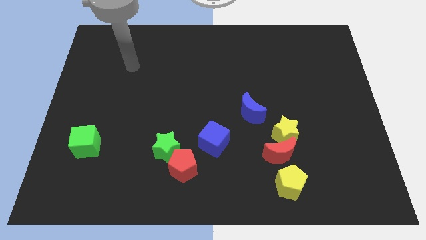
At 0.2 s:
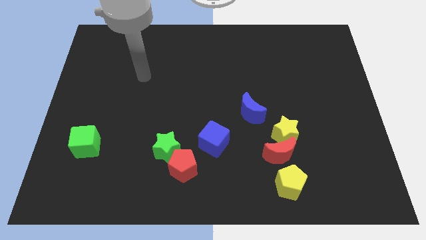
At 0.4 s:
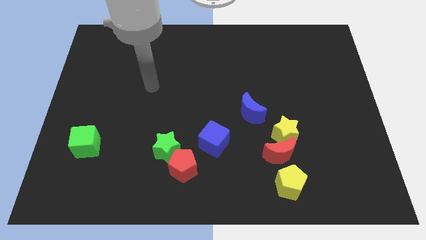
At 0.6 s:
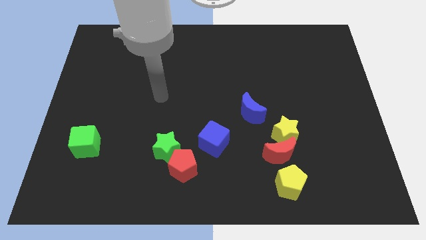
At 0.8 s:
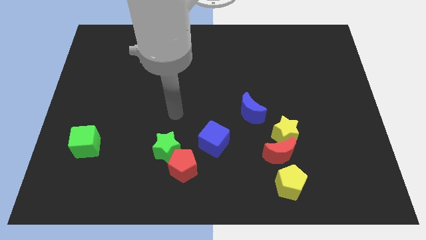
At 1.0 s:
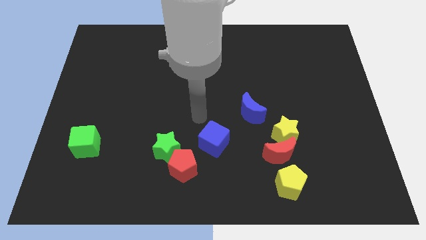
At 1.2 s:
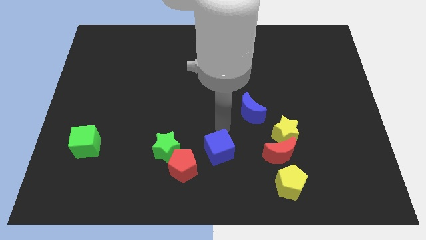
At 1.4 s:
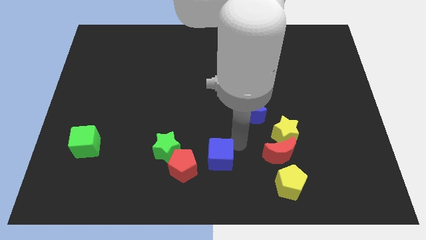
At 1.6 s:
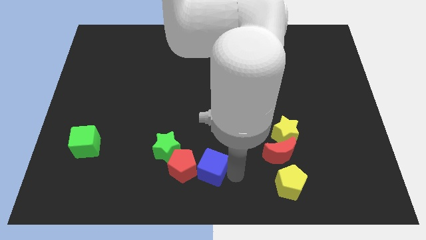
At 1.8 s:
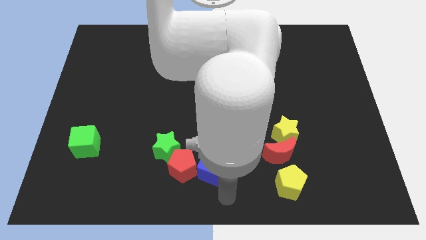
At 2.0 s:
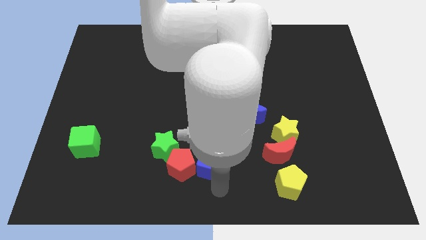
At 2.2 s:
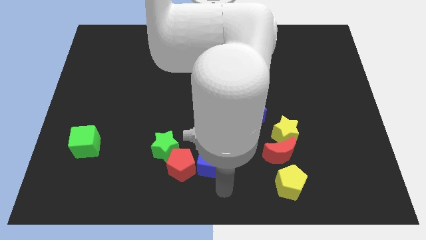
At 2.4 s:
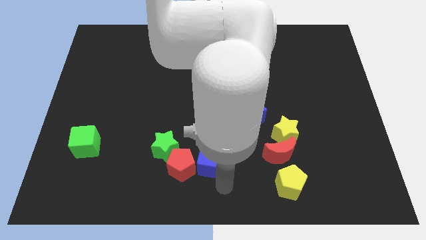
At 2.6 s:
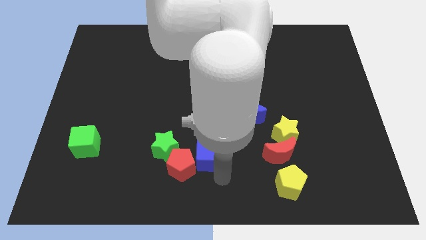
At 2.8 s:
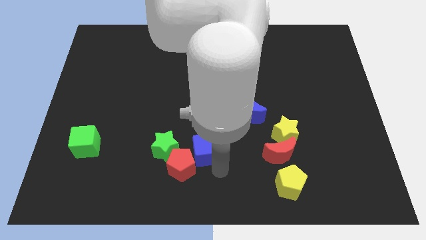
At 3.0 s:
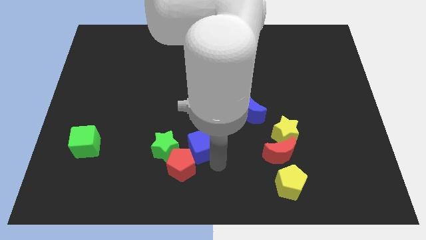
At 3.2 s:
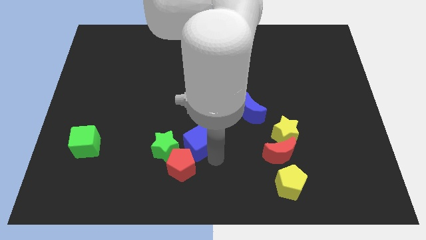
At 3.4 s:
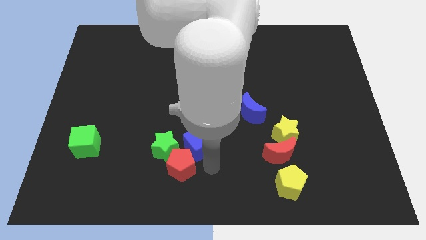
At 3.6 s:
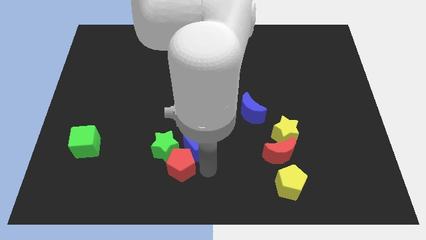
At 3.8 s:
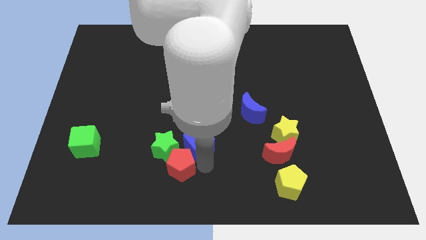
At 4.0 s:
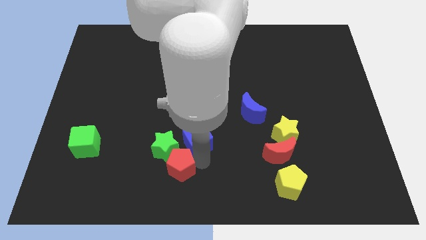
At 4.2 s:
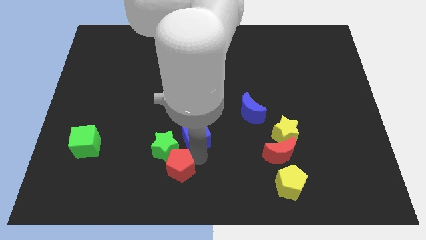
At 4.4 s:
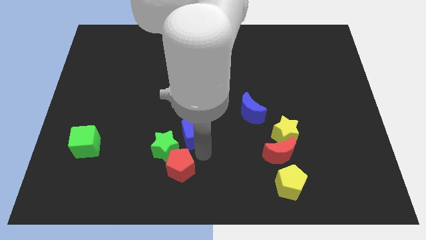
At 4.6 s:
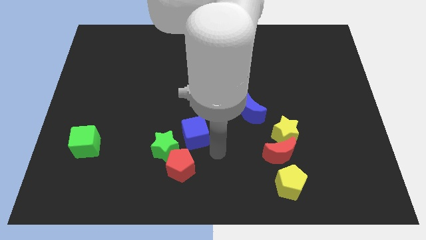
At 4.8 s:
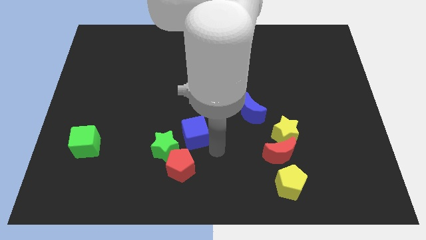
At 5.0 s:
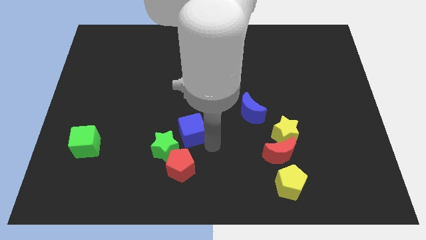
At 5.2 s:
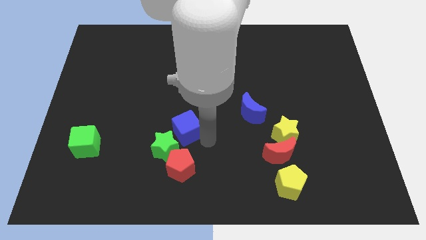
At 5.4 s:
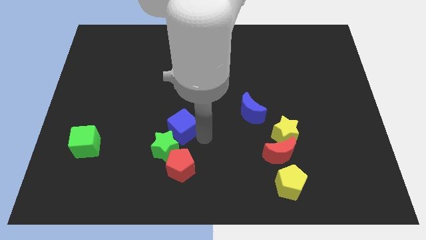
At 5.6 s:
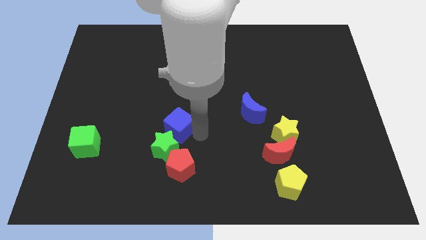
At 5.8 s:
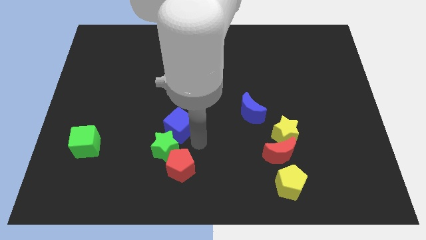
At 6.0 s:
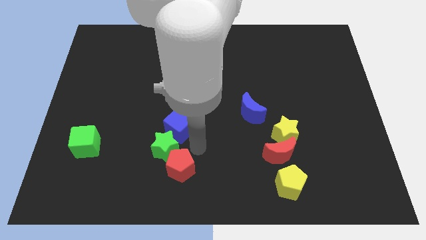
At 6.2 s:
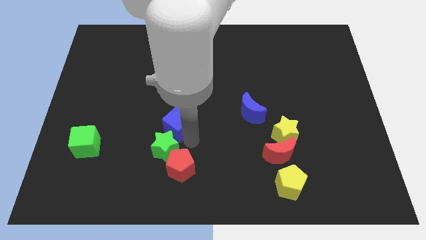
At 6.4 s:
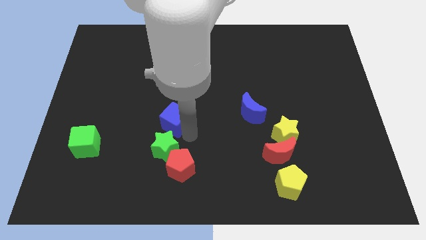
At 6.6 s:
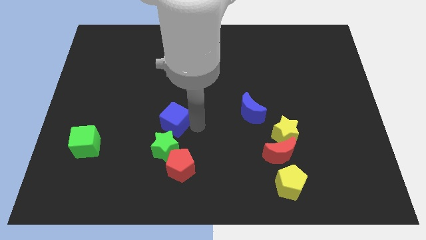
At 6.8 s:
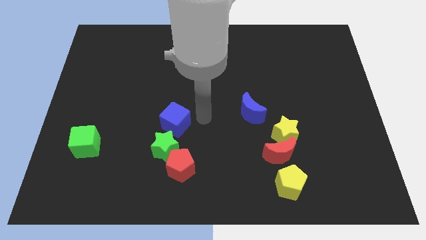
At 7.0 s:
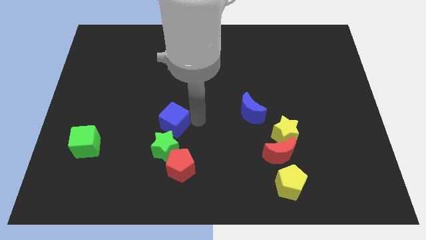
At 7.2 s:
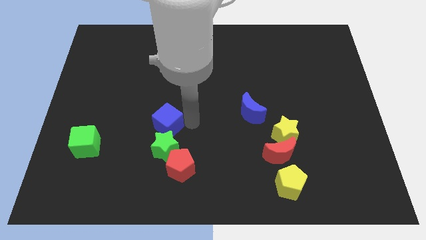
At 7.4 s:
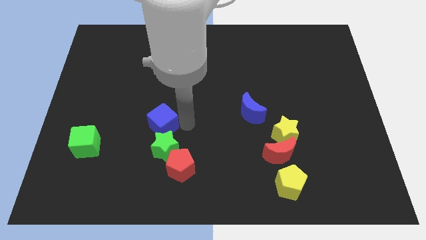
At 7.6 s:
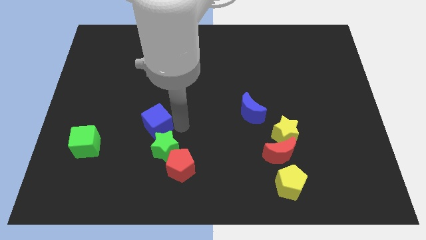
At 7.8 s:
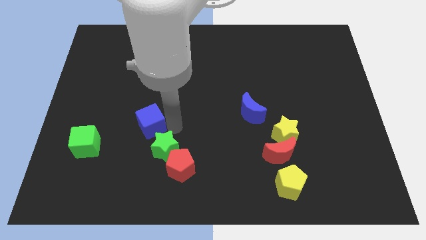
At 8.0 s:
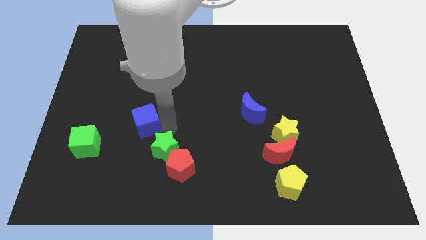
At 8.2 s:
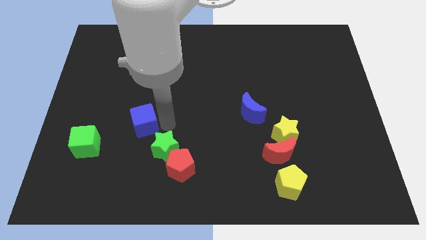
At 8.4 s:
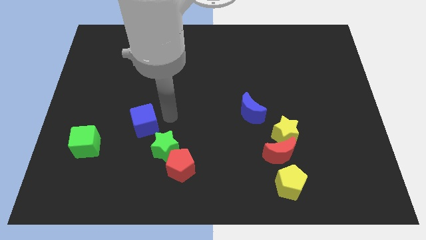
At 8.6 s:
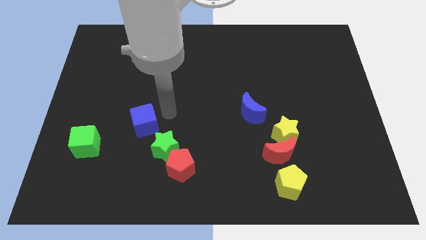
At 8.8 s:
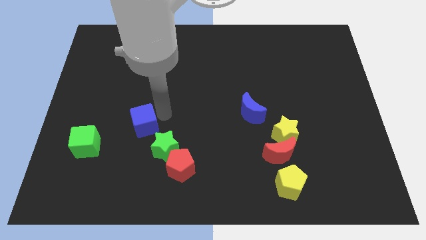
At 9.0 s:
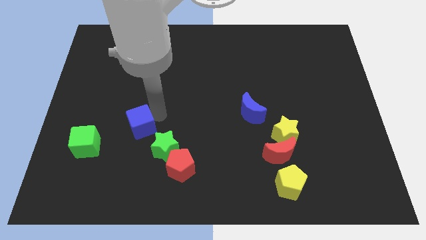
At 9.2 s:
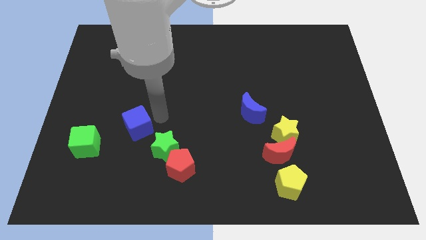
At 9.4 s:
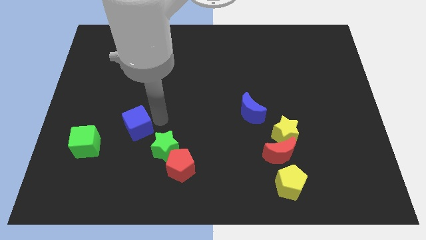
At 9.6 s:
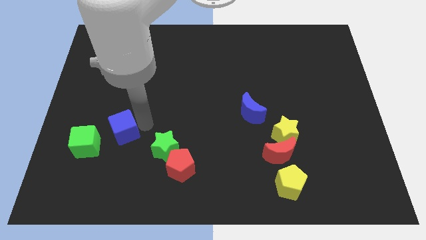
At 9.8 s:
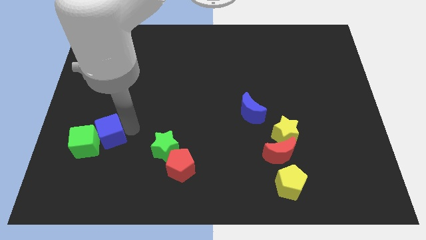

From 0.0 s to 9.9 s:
slide the blue cube towards the green cube

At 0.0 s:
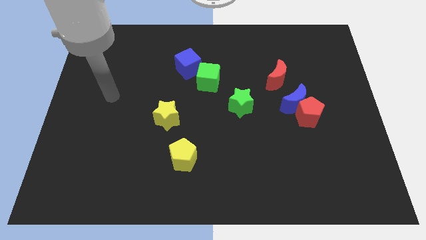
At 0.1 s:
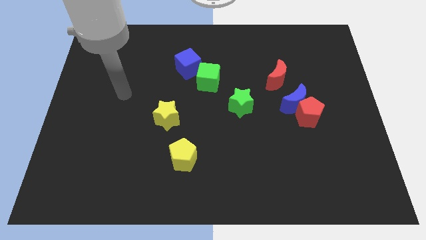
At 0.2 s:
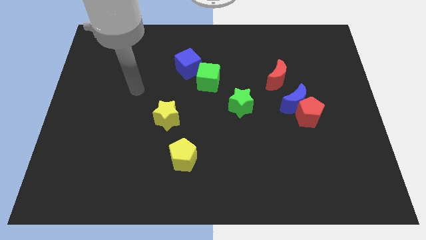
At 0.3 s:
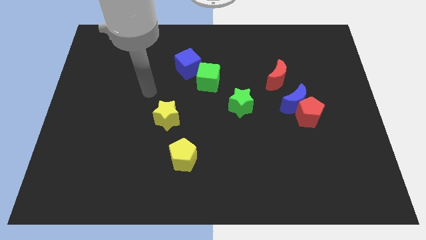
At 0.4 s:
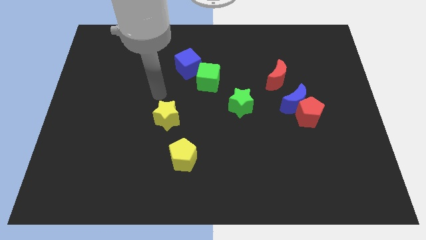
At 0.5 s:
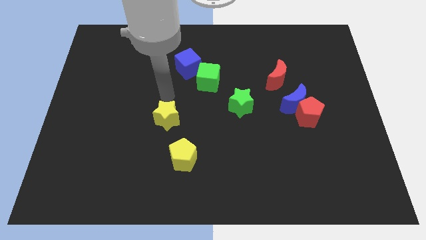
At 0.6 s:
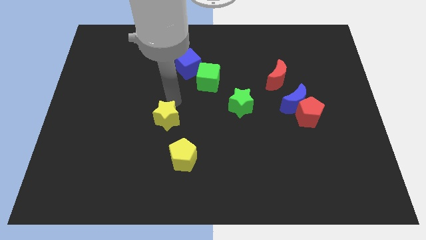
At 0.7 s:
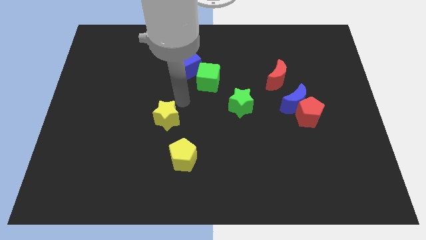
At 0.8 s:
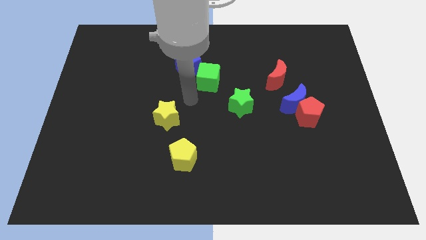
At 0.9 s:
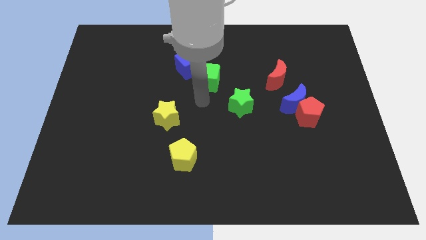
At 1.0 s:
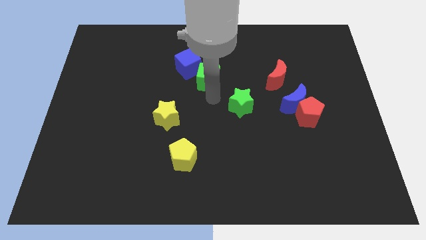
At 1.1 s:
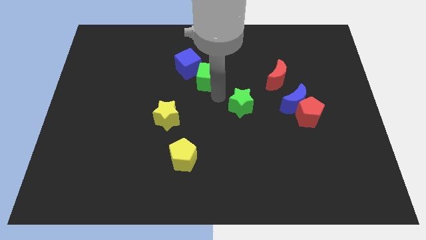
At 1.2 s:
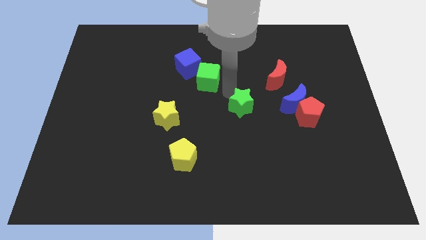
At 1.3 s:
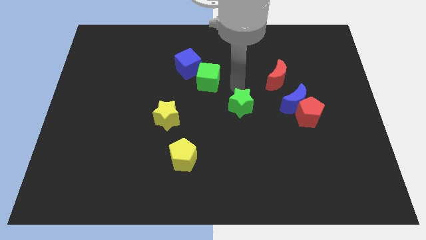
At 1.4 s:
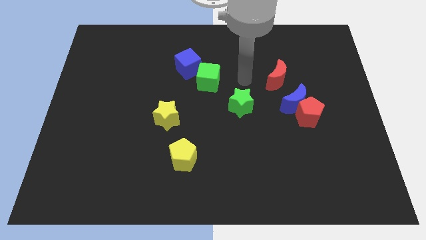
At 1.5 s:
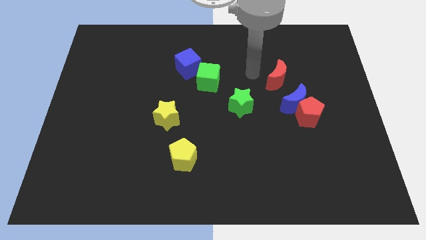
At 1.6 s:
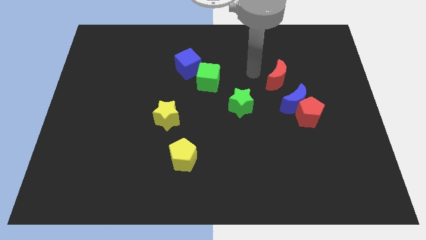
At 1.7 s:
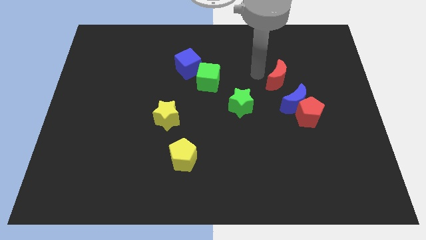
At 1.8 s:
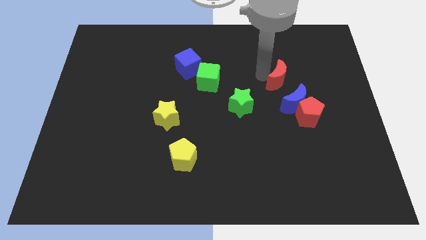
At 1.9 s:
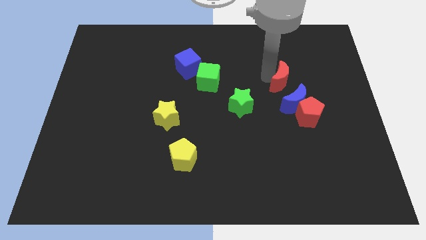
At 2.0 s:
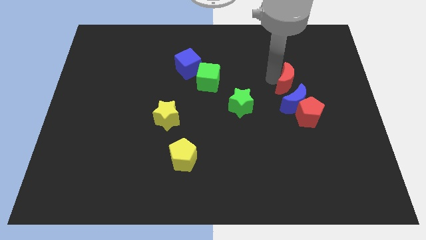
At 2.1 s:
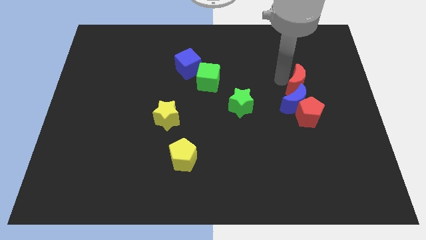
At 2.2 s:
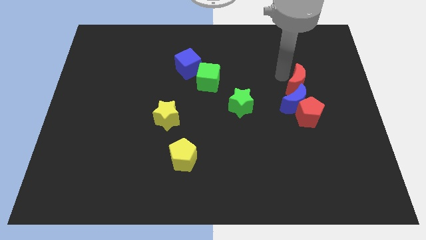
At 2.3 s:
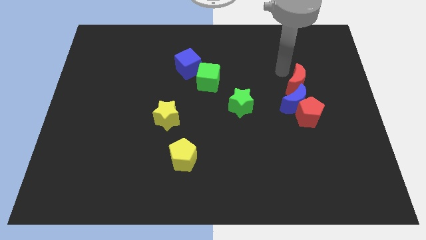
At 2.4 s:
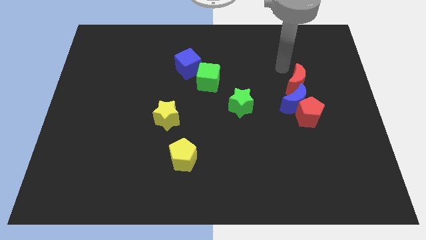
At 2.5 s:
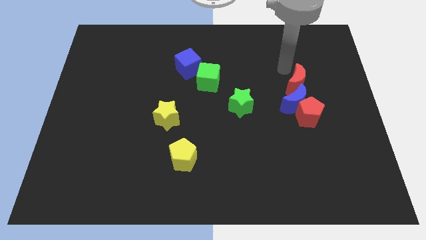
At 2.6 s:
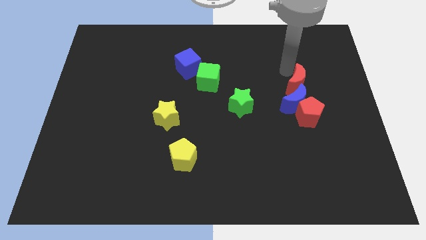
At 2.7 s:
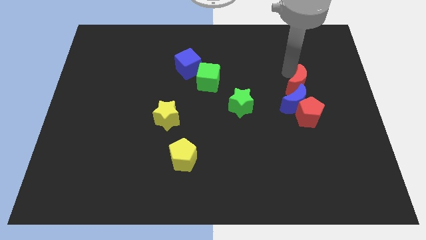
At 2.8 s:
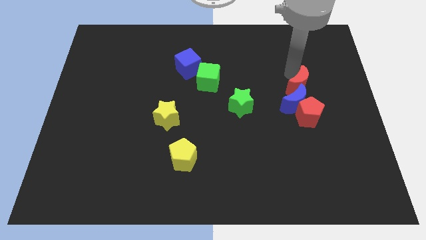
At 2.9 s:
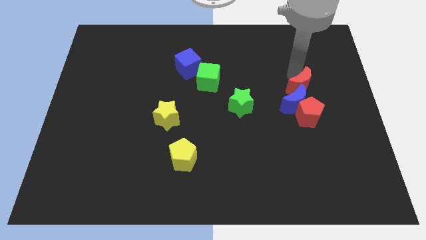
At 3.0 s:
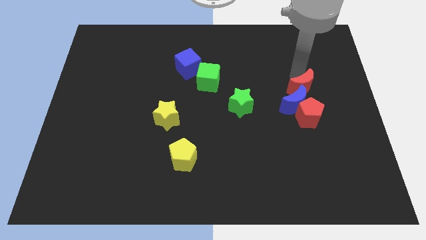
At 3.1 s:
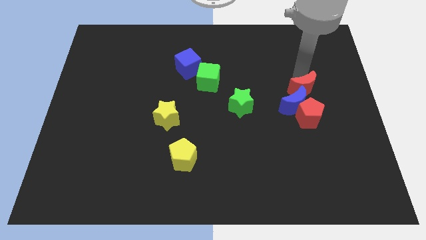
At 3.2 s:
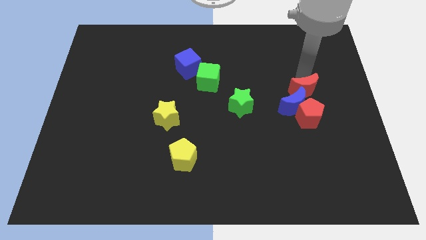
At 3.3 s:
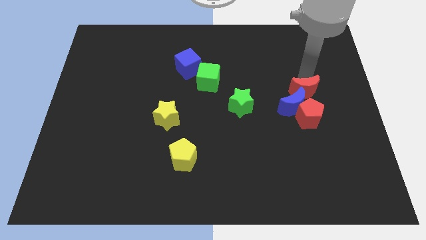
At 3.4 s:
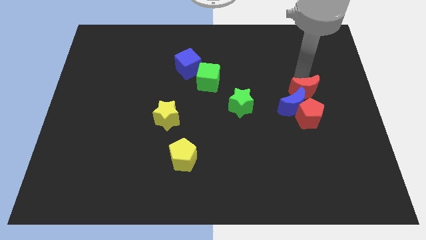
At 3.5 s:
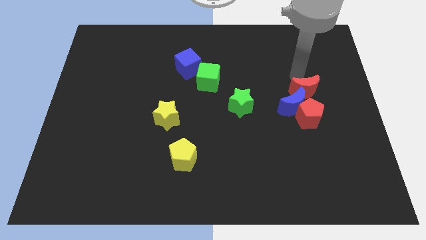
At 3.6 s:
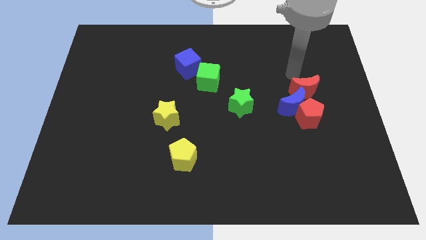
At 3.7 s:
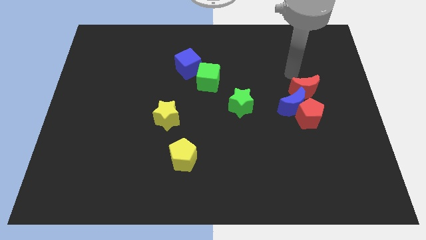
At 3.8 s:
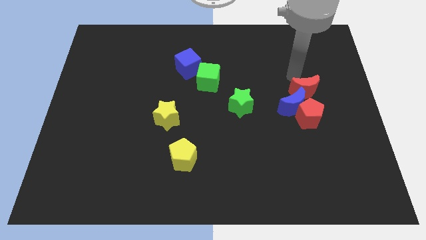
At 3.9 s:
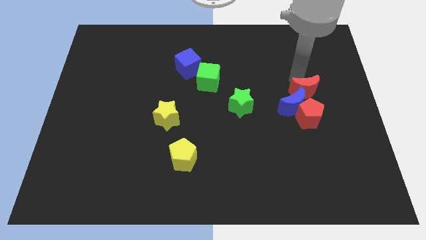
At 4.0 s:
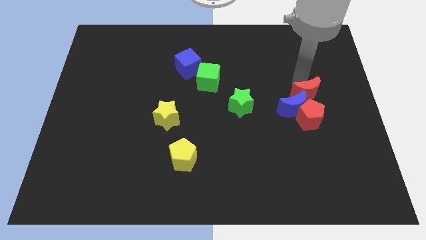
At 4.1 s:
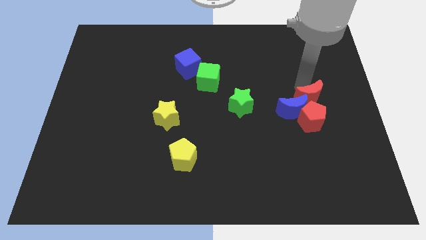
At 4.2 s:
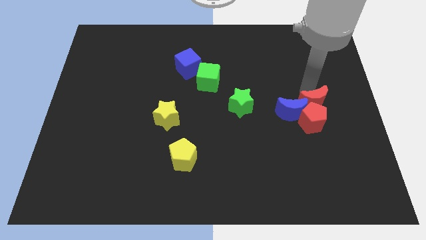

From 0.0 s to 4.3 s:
slide the red moon next to the red pentagon
